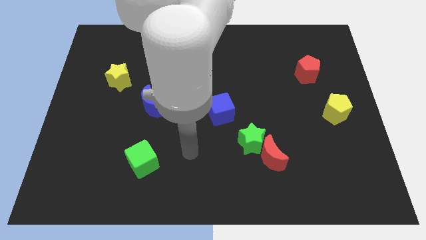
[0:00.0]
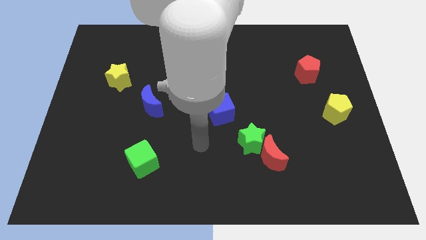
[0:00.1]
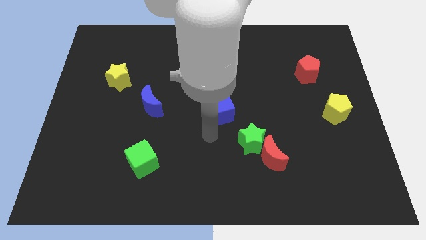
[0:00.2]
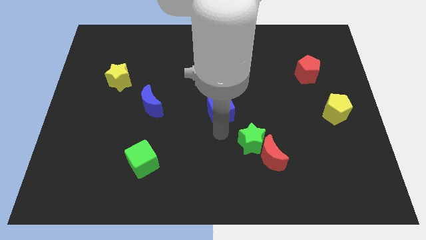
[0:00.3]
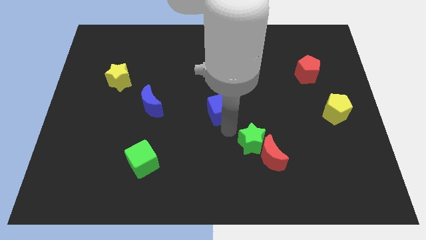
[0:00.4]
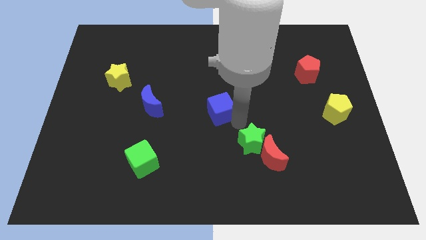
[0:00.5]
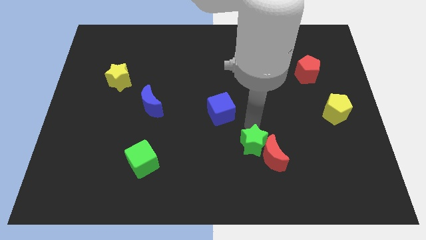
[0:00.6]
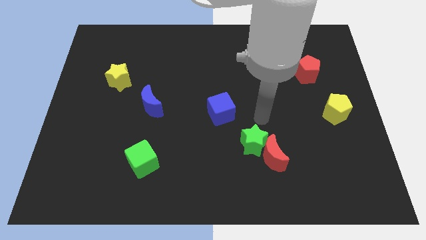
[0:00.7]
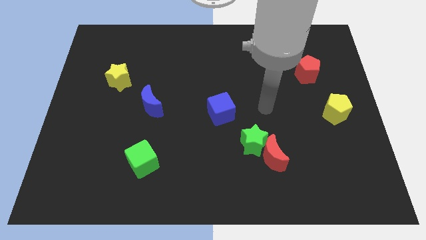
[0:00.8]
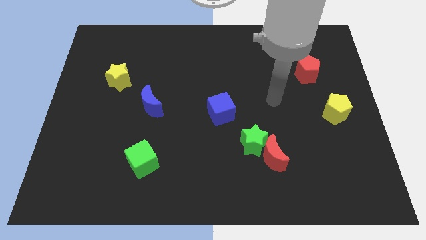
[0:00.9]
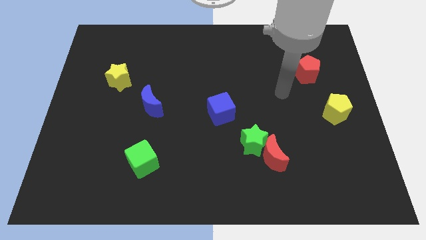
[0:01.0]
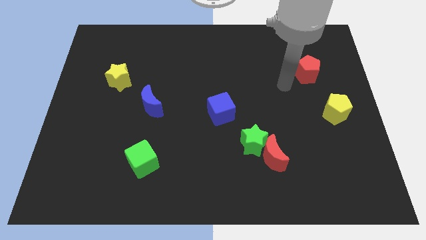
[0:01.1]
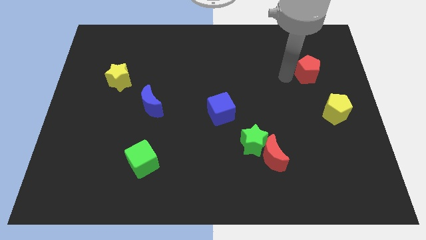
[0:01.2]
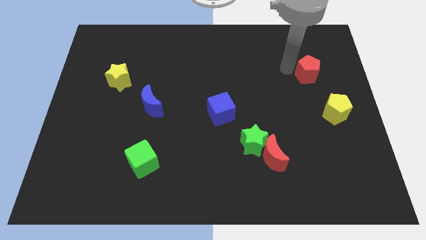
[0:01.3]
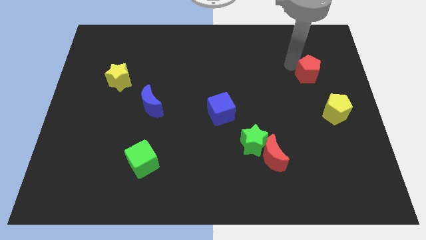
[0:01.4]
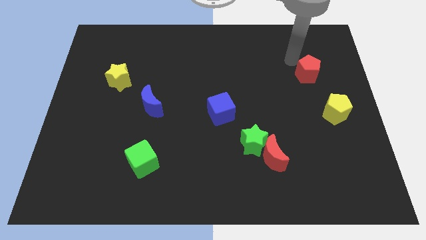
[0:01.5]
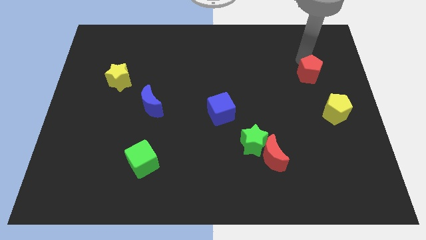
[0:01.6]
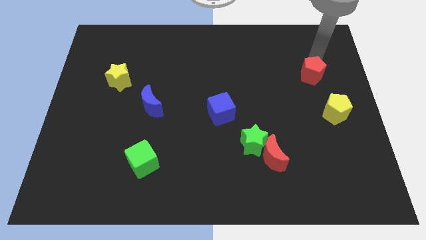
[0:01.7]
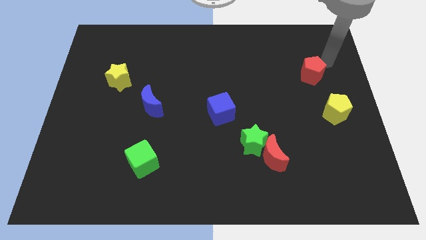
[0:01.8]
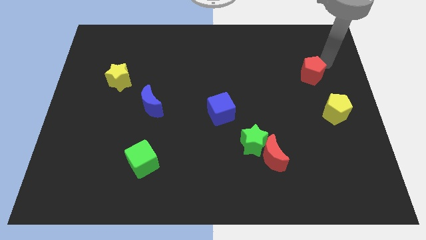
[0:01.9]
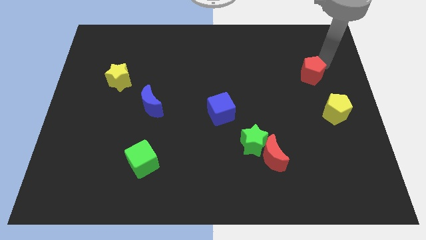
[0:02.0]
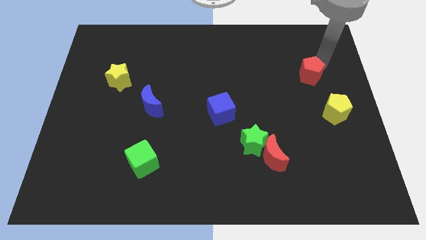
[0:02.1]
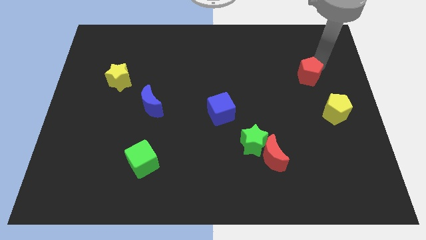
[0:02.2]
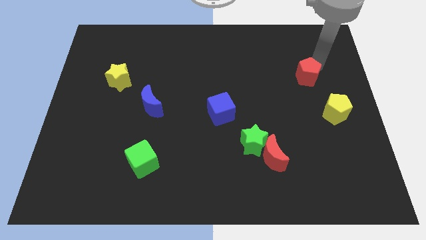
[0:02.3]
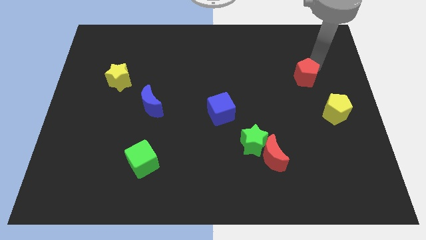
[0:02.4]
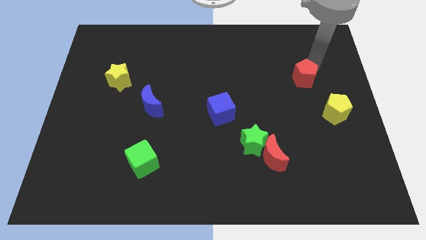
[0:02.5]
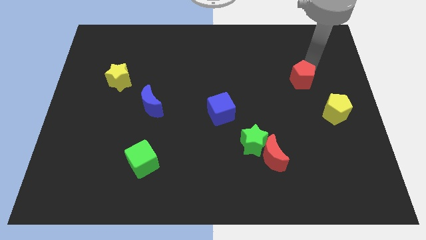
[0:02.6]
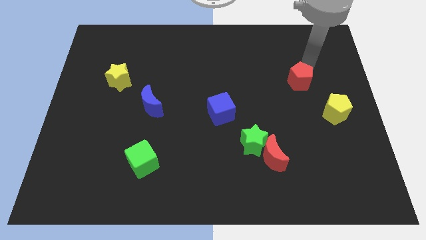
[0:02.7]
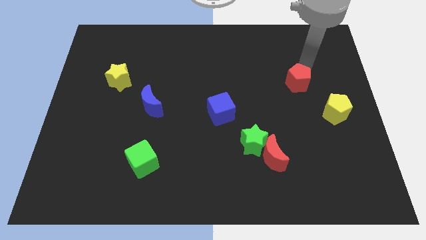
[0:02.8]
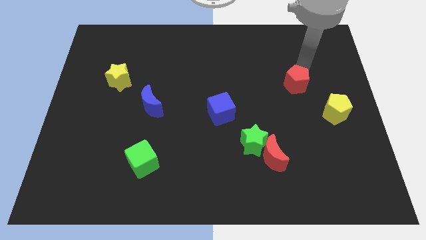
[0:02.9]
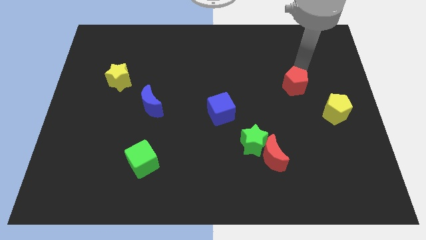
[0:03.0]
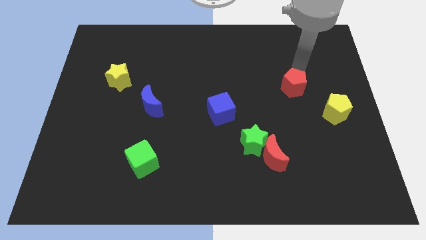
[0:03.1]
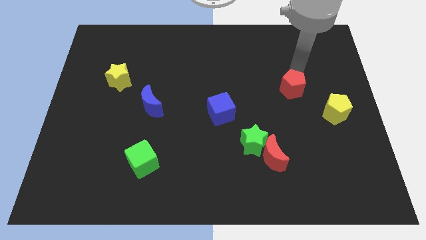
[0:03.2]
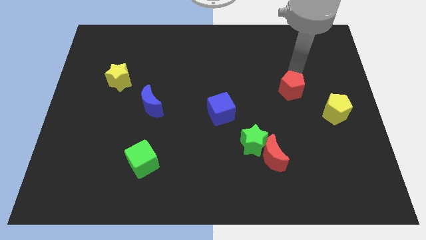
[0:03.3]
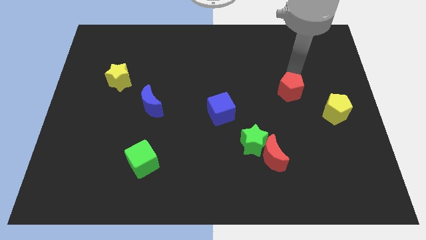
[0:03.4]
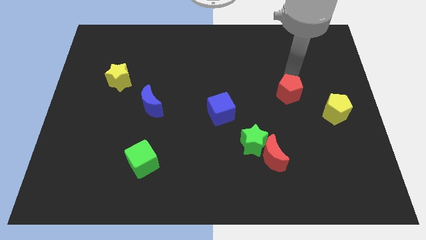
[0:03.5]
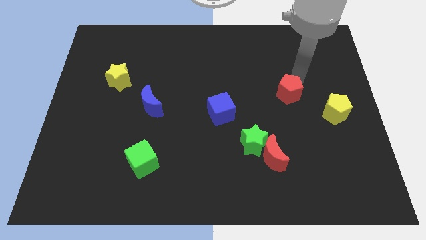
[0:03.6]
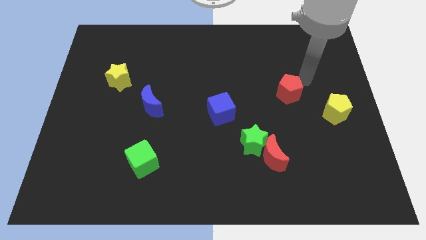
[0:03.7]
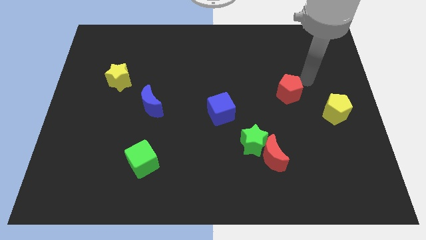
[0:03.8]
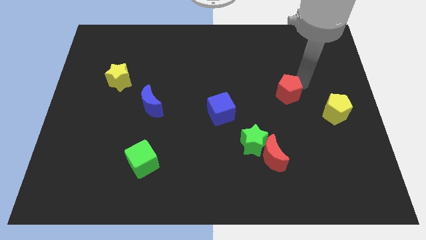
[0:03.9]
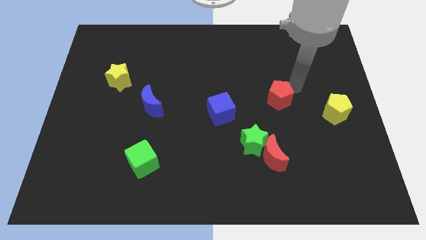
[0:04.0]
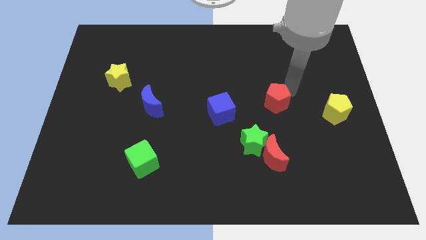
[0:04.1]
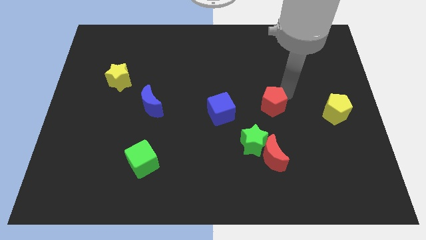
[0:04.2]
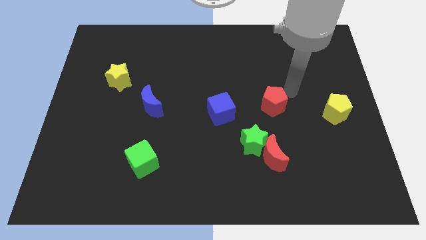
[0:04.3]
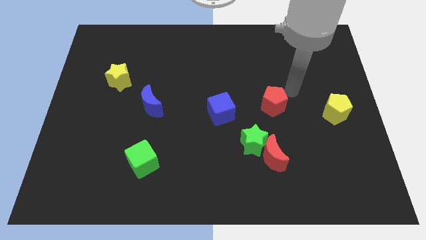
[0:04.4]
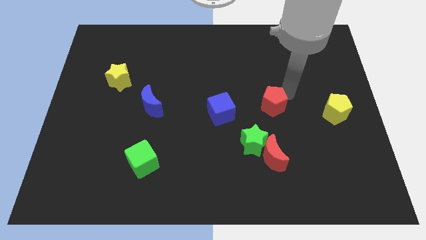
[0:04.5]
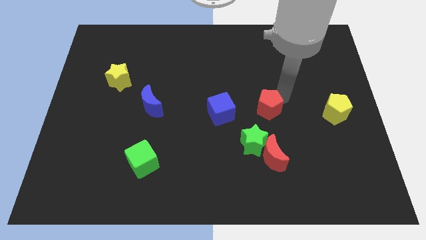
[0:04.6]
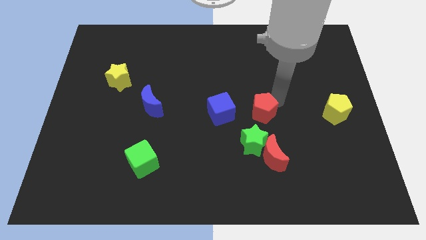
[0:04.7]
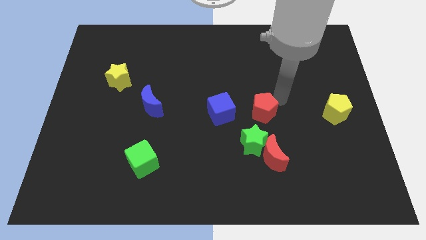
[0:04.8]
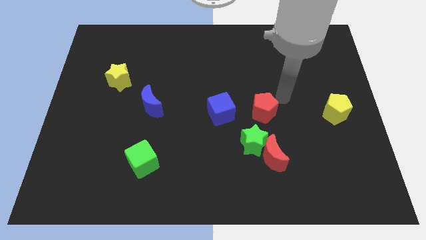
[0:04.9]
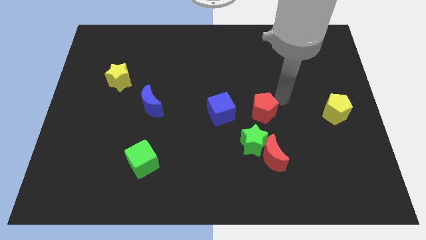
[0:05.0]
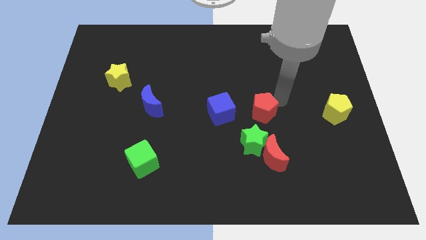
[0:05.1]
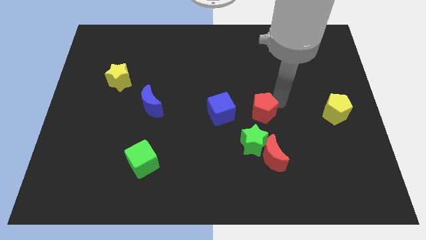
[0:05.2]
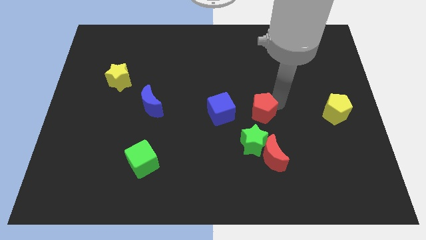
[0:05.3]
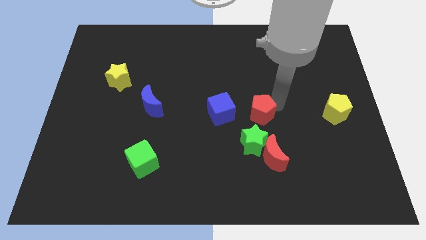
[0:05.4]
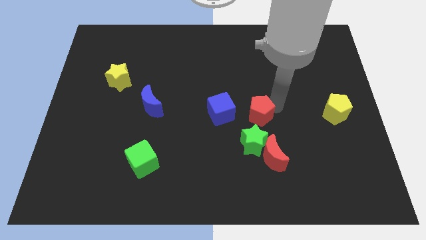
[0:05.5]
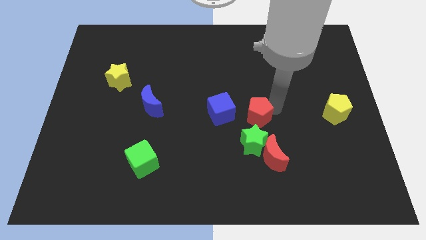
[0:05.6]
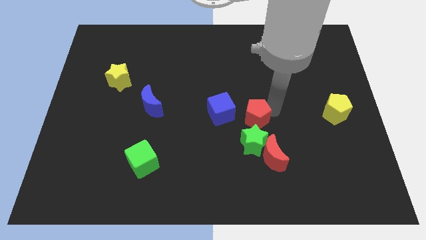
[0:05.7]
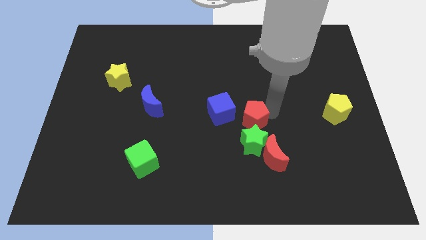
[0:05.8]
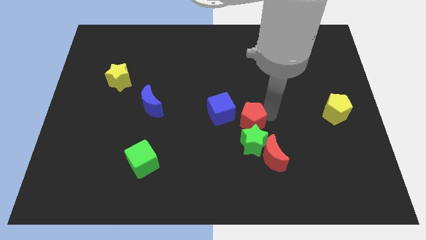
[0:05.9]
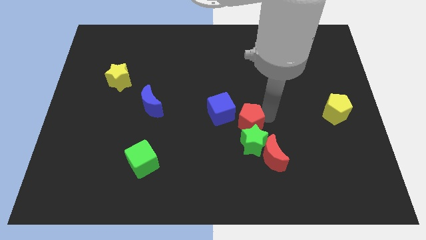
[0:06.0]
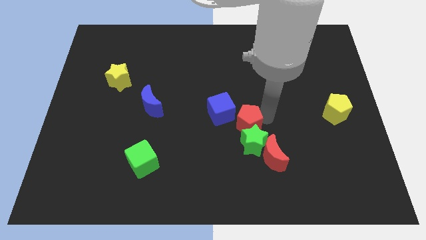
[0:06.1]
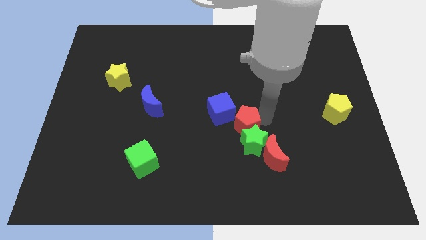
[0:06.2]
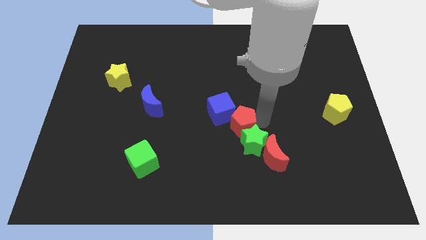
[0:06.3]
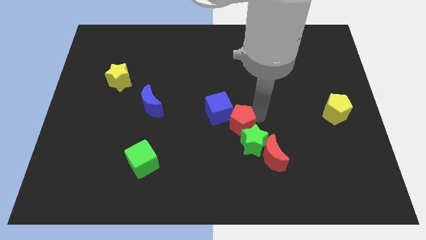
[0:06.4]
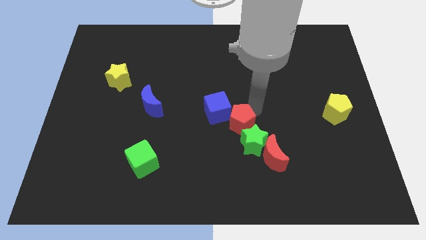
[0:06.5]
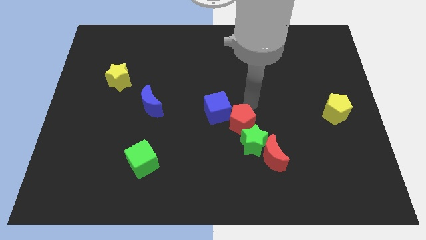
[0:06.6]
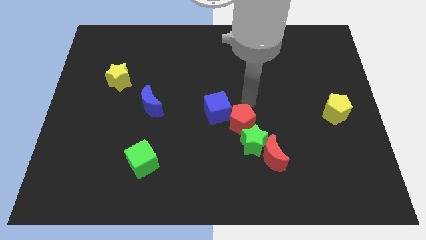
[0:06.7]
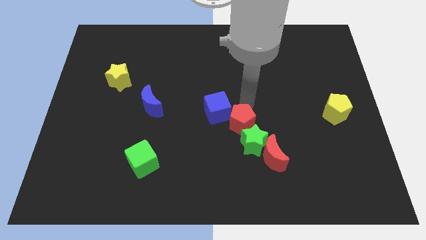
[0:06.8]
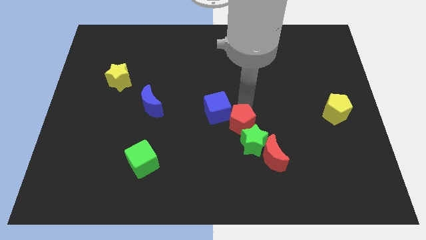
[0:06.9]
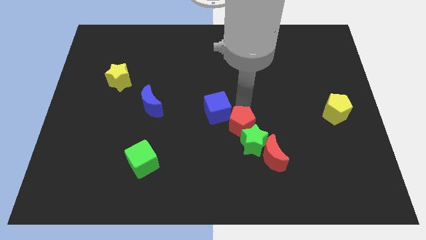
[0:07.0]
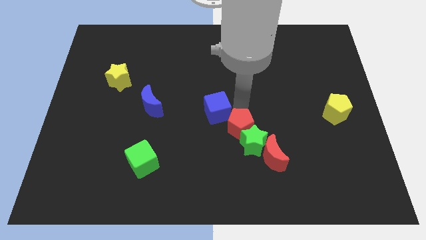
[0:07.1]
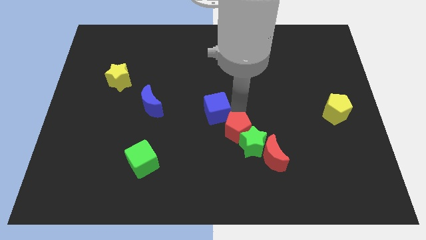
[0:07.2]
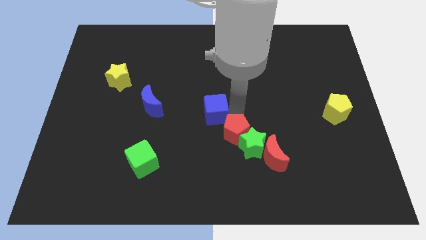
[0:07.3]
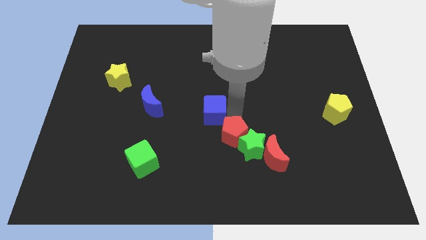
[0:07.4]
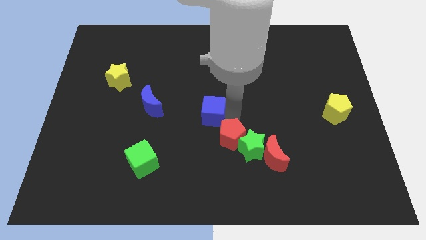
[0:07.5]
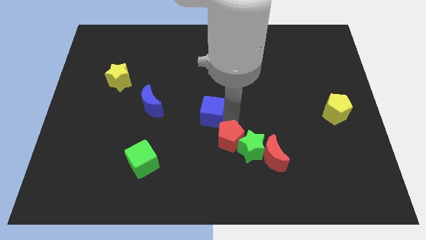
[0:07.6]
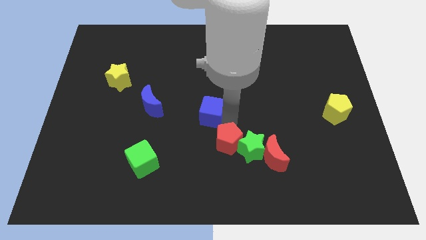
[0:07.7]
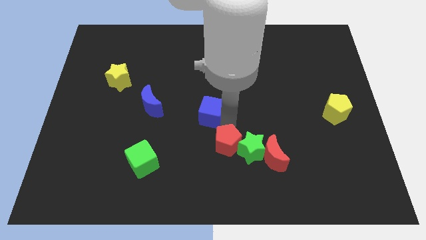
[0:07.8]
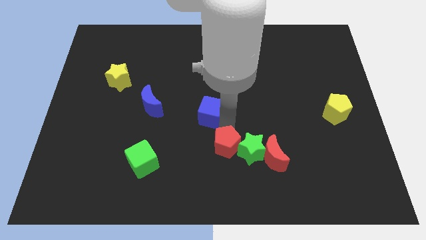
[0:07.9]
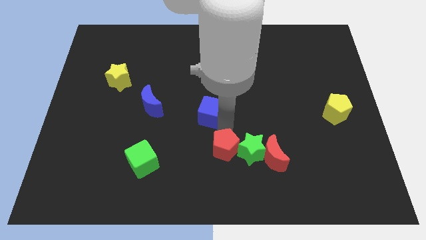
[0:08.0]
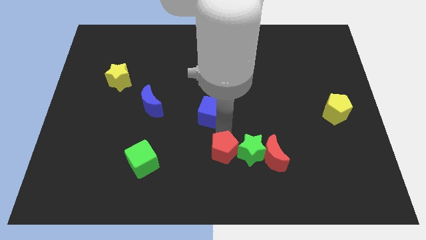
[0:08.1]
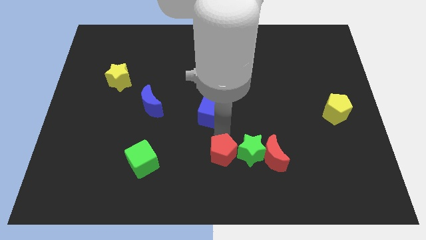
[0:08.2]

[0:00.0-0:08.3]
slide the red pentagon to the bottom
